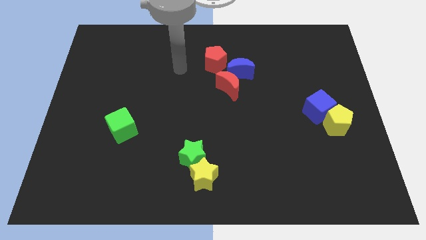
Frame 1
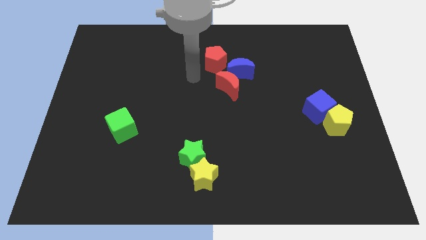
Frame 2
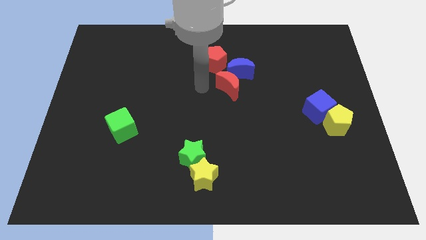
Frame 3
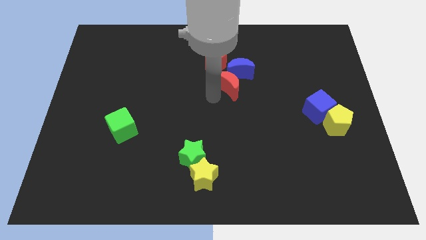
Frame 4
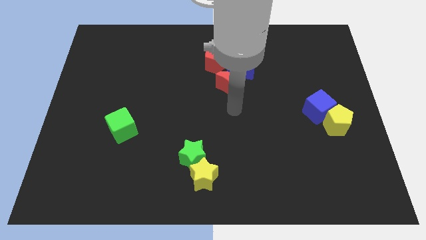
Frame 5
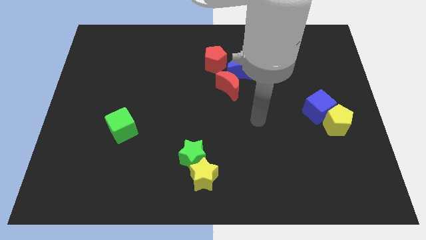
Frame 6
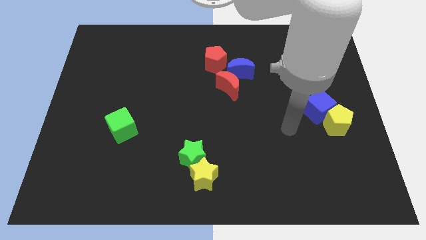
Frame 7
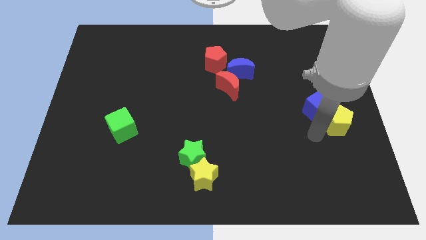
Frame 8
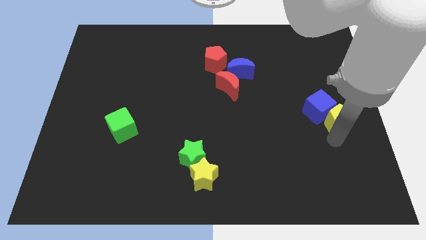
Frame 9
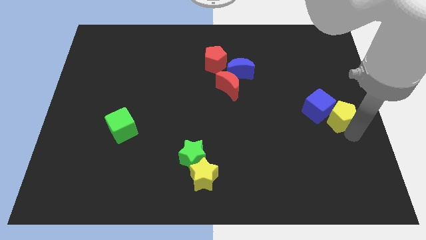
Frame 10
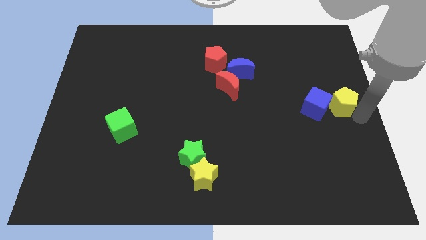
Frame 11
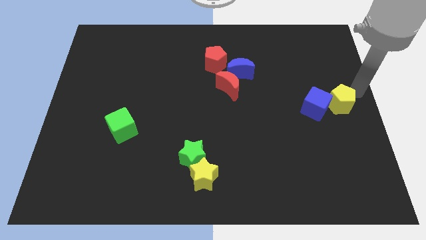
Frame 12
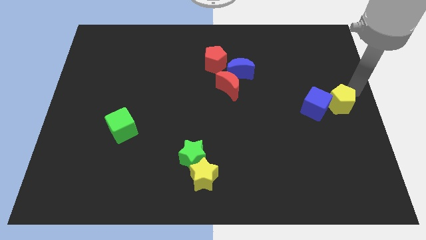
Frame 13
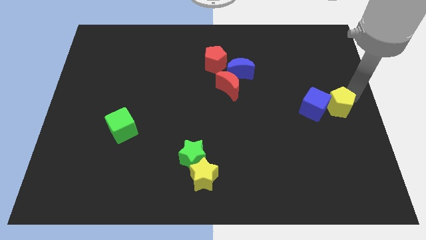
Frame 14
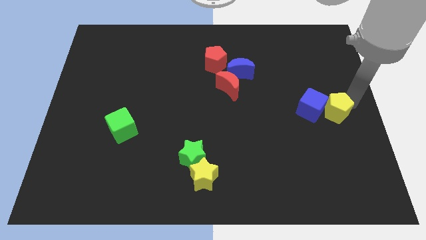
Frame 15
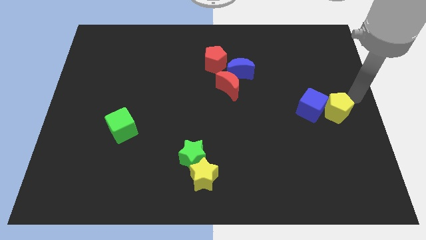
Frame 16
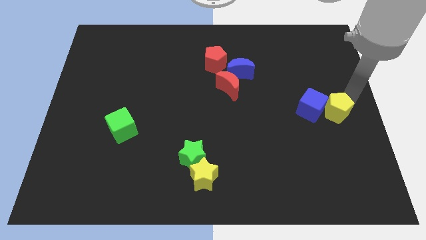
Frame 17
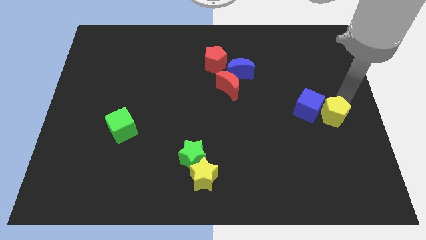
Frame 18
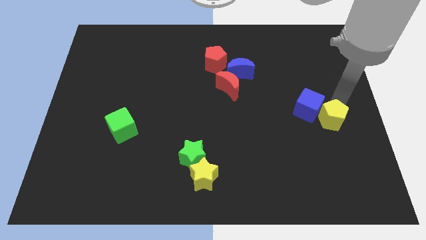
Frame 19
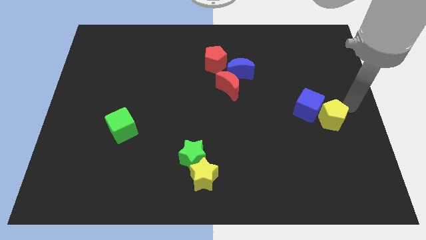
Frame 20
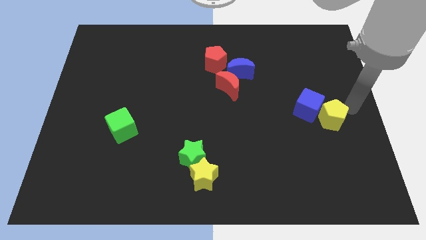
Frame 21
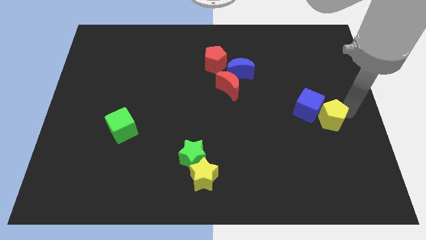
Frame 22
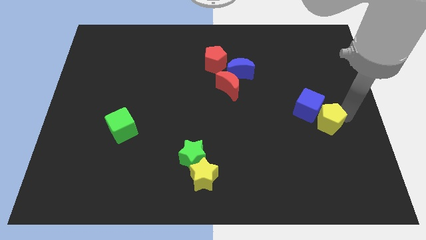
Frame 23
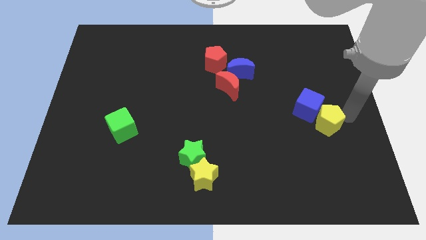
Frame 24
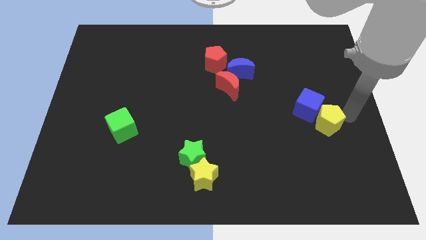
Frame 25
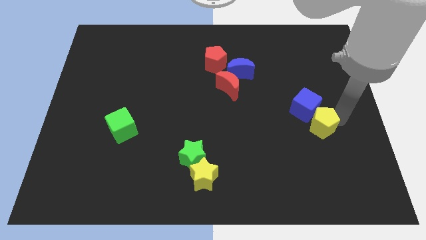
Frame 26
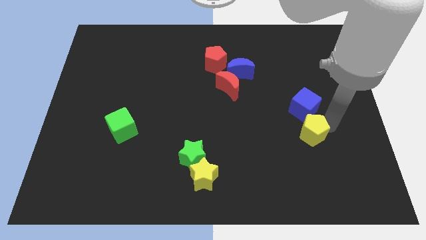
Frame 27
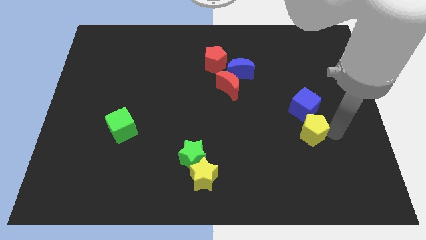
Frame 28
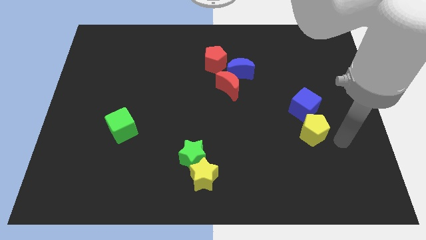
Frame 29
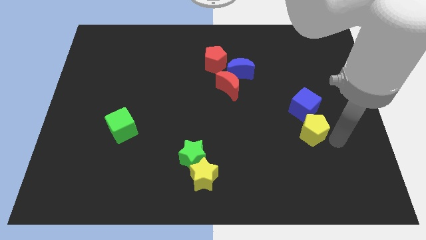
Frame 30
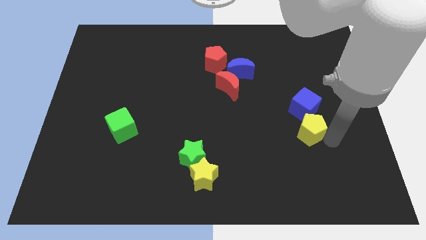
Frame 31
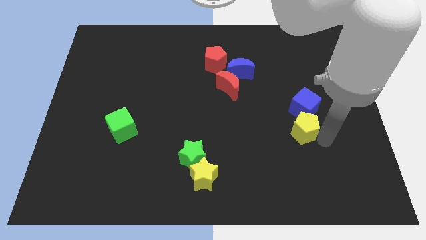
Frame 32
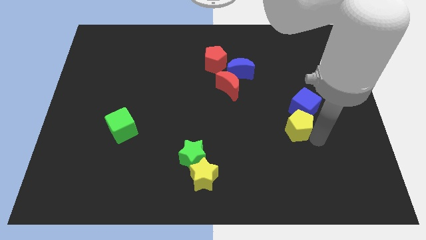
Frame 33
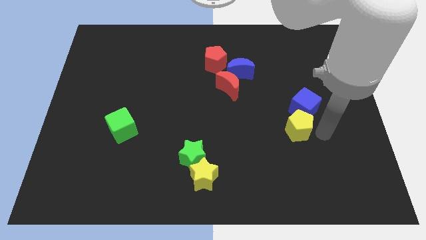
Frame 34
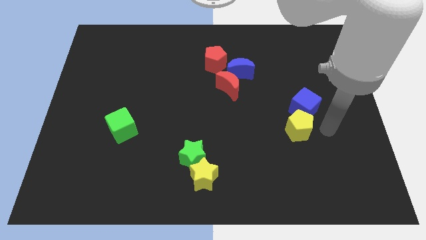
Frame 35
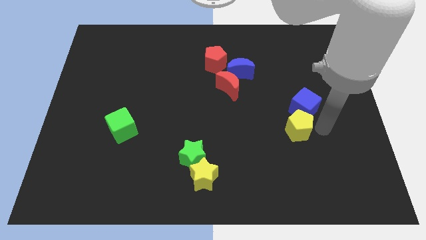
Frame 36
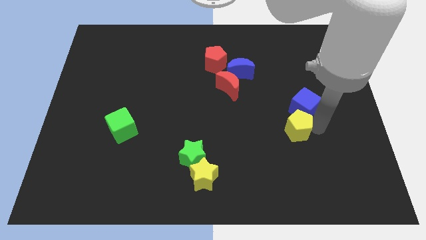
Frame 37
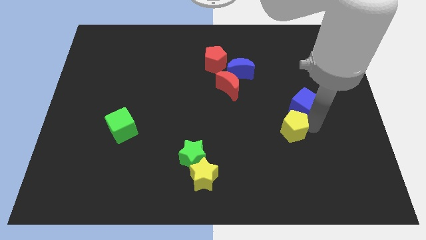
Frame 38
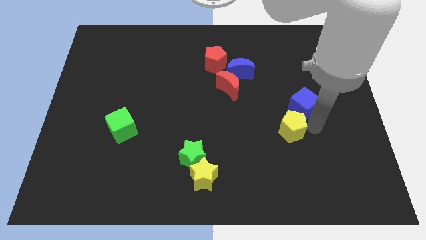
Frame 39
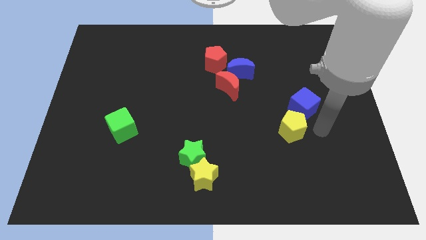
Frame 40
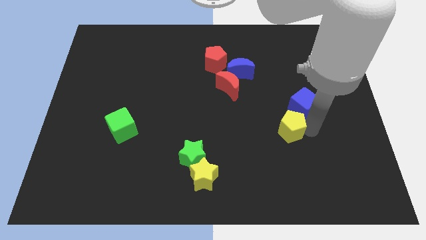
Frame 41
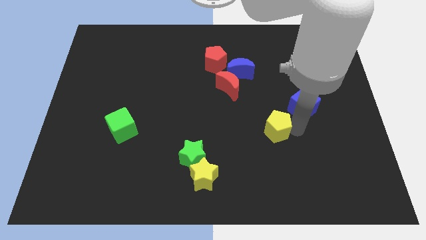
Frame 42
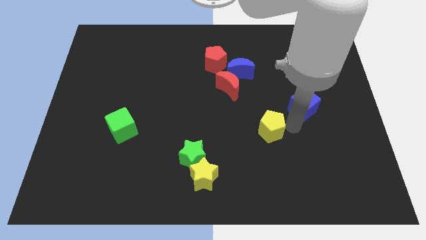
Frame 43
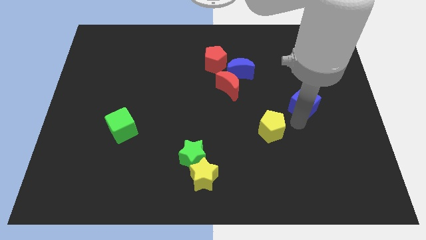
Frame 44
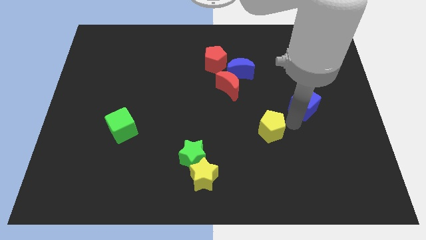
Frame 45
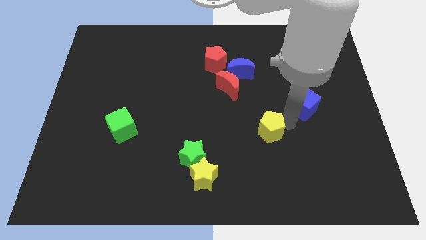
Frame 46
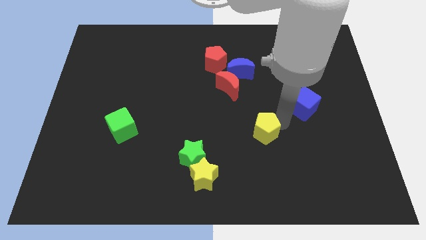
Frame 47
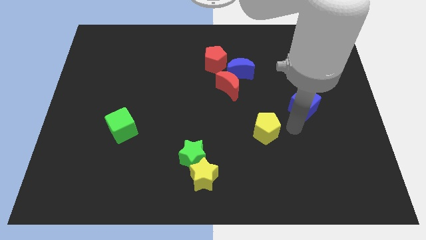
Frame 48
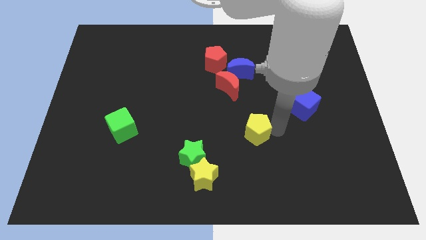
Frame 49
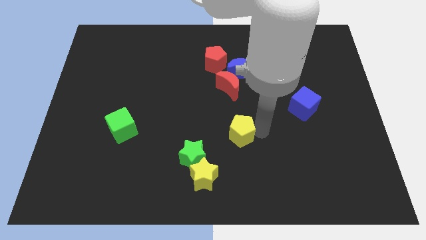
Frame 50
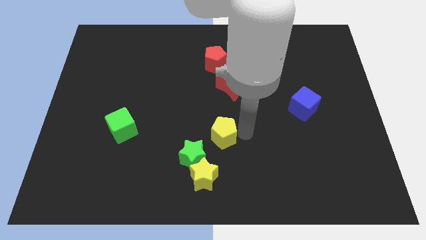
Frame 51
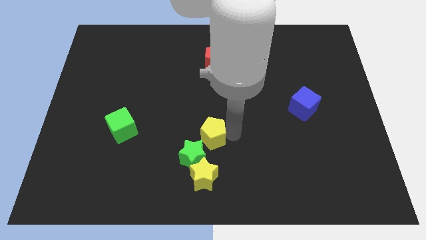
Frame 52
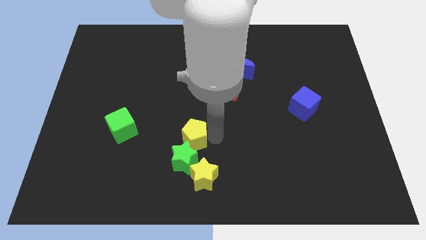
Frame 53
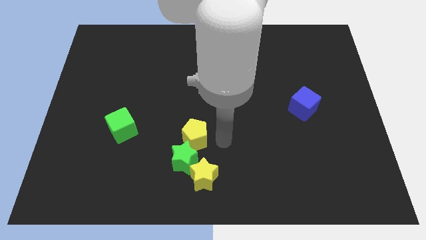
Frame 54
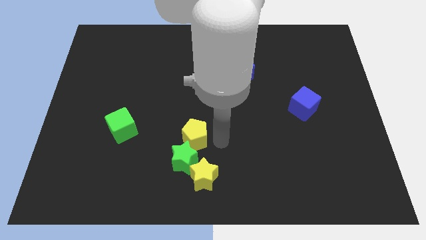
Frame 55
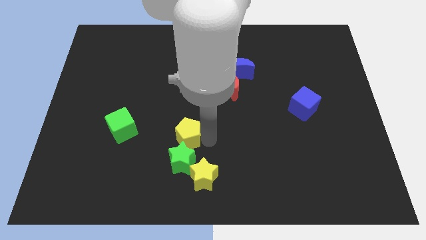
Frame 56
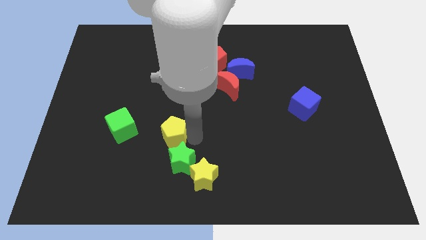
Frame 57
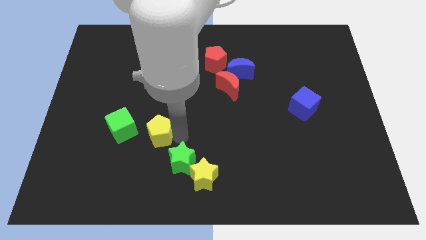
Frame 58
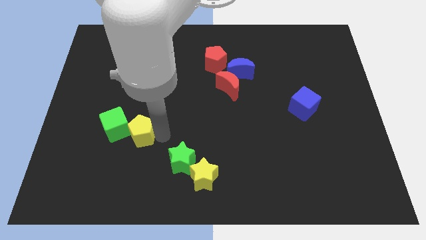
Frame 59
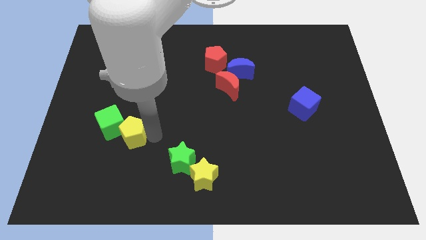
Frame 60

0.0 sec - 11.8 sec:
push the yellow pentagon towards the green cube

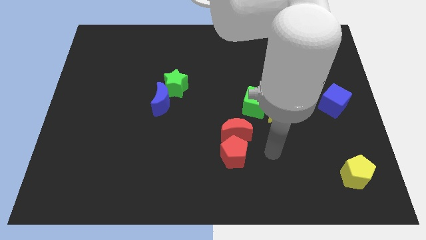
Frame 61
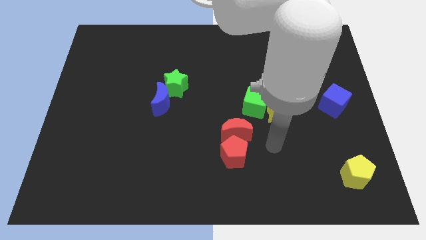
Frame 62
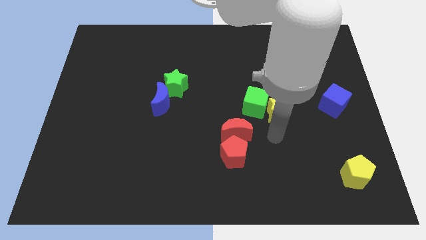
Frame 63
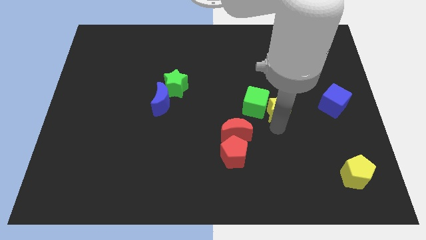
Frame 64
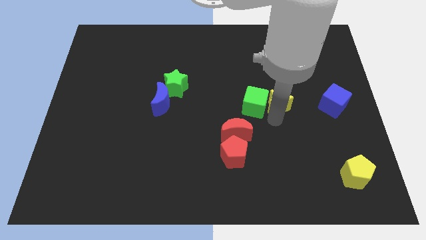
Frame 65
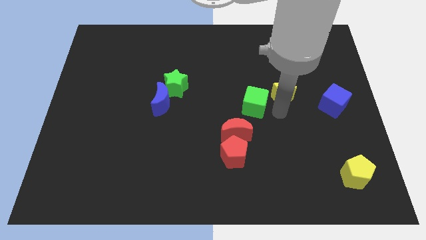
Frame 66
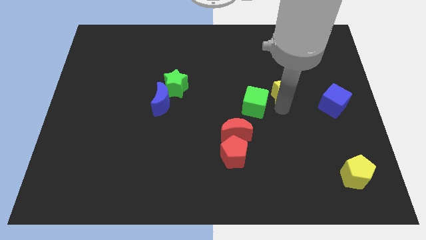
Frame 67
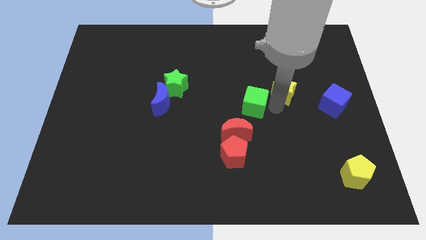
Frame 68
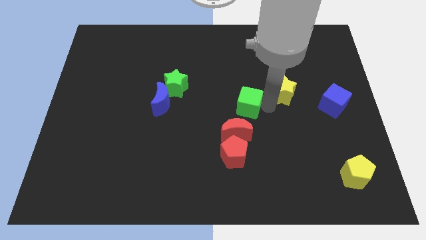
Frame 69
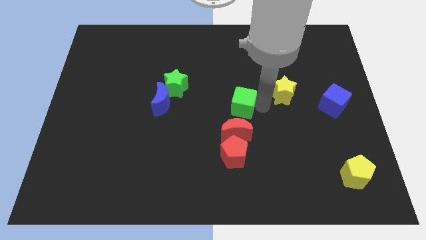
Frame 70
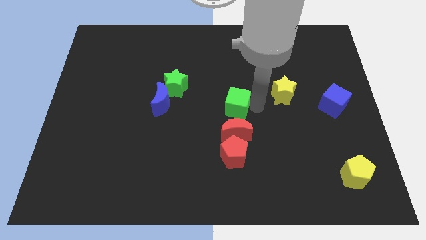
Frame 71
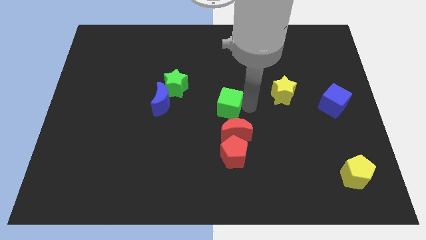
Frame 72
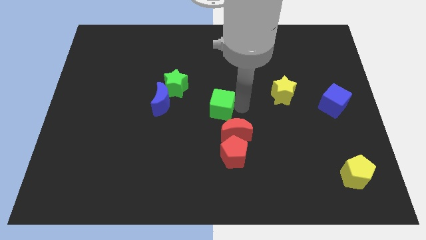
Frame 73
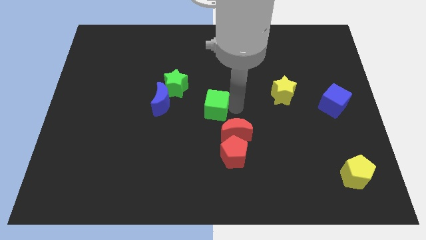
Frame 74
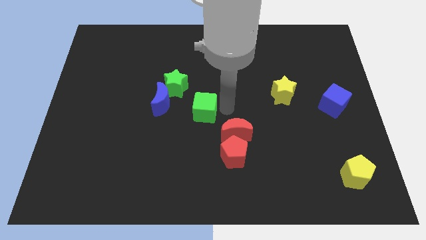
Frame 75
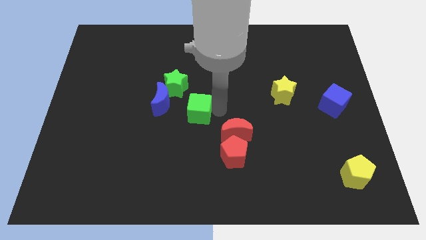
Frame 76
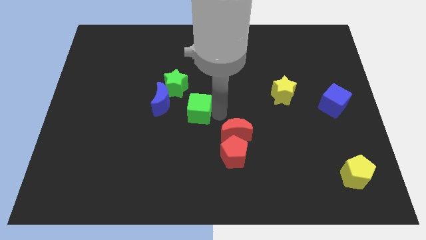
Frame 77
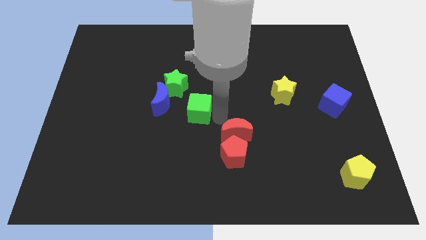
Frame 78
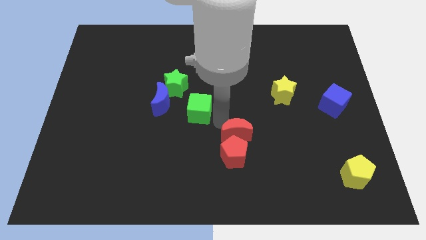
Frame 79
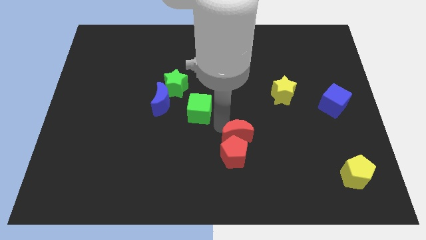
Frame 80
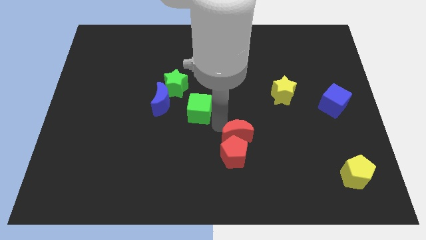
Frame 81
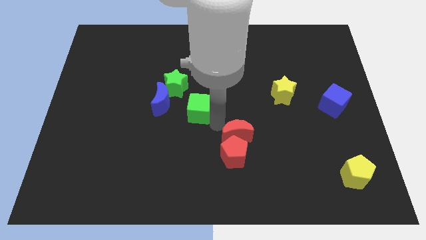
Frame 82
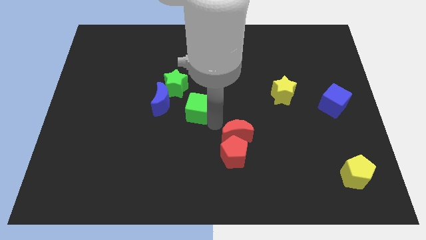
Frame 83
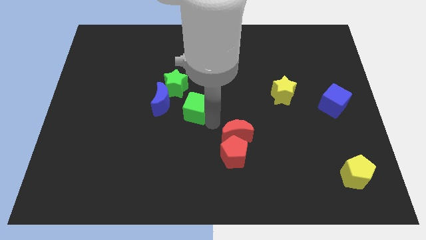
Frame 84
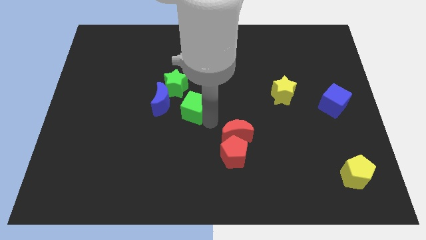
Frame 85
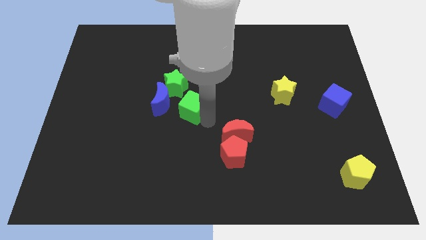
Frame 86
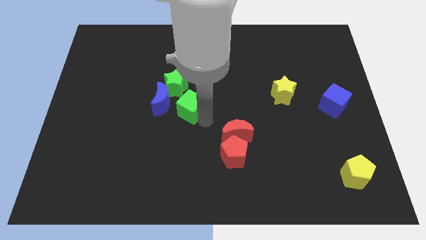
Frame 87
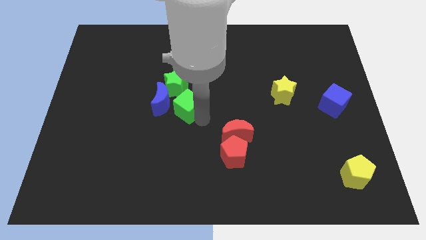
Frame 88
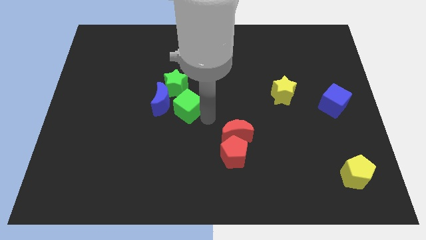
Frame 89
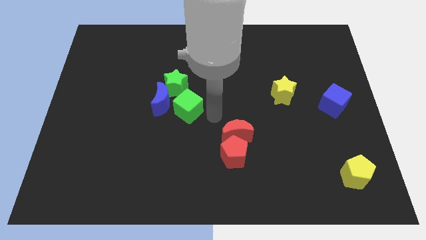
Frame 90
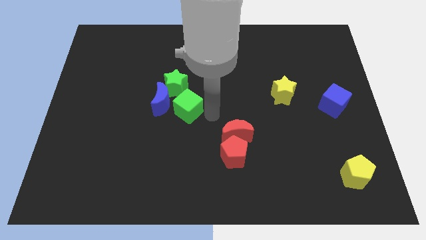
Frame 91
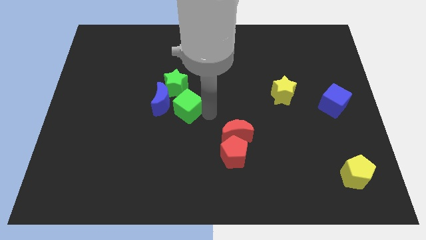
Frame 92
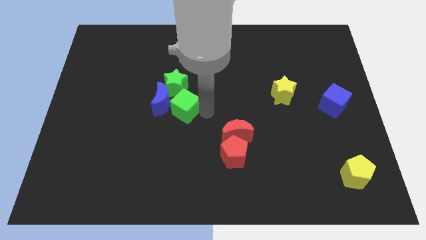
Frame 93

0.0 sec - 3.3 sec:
move the green cube towards the blue moon
